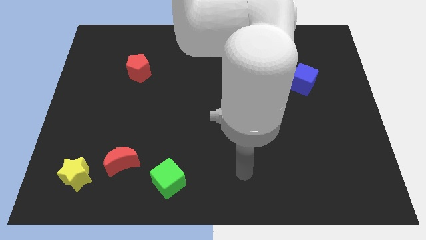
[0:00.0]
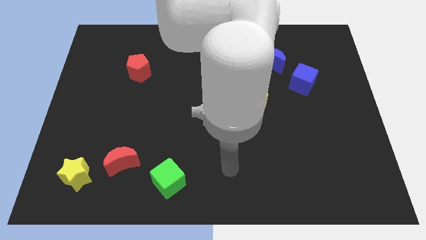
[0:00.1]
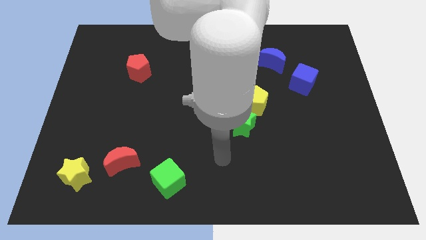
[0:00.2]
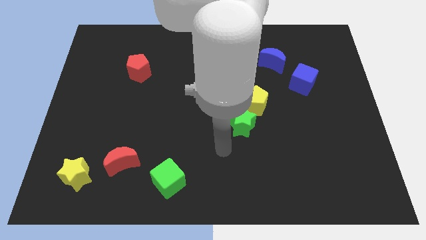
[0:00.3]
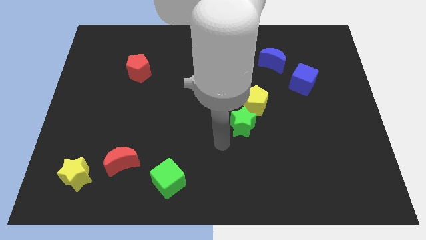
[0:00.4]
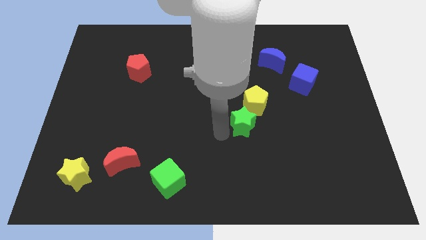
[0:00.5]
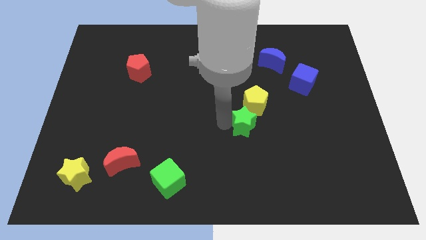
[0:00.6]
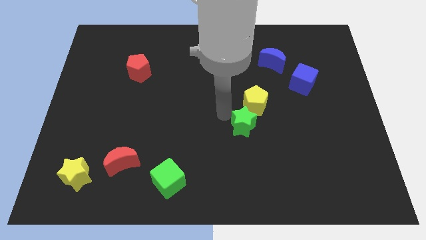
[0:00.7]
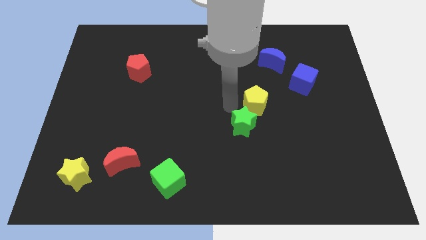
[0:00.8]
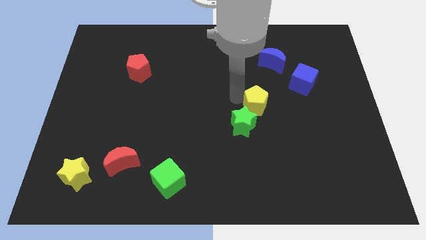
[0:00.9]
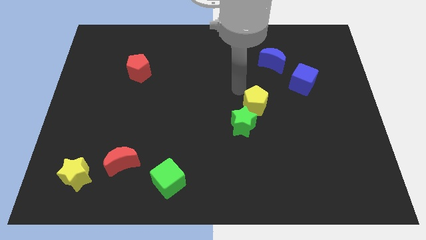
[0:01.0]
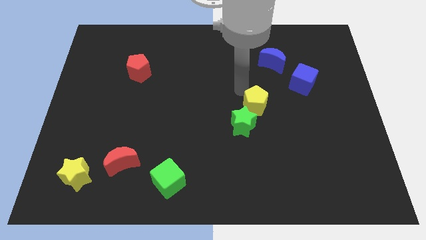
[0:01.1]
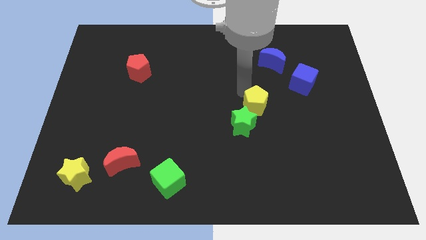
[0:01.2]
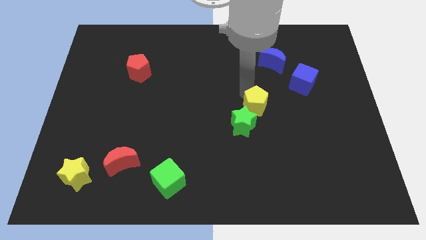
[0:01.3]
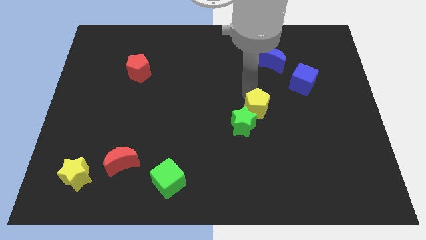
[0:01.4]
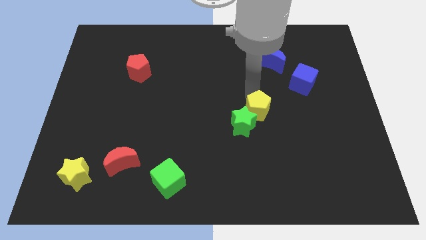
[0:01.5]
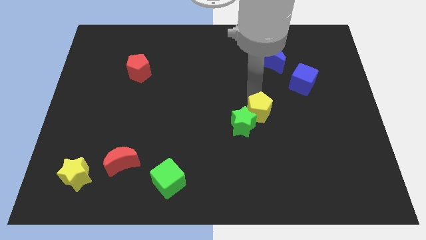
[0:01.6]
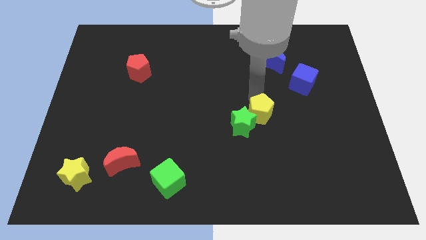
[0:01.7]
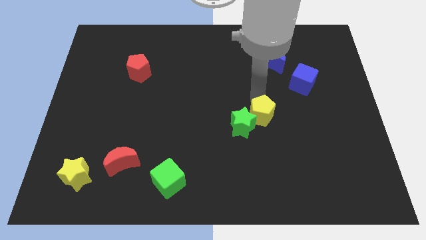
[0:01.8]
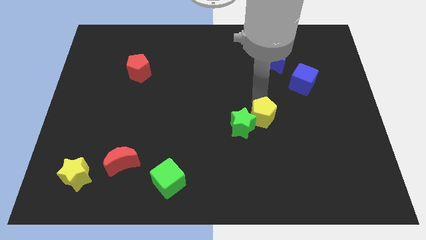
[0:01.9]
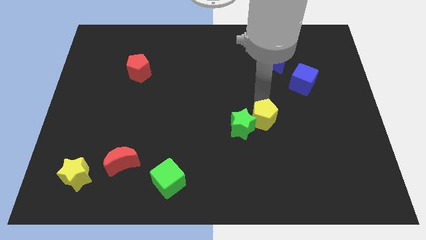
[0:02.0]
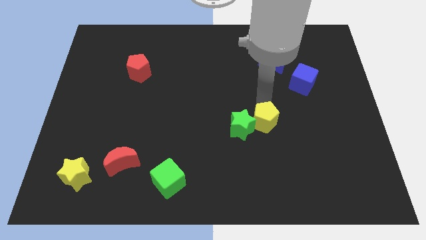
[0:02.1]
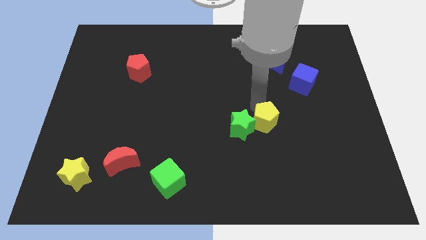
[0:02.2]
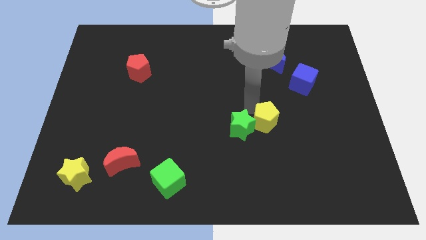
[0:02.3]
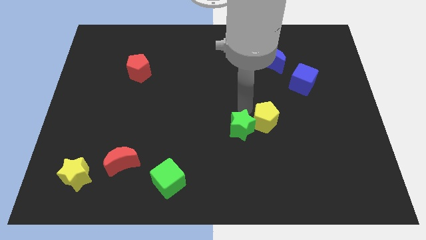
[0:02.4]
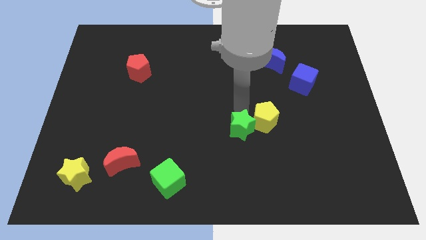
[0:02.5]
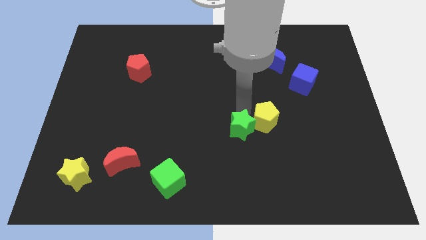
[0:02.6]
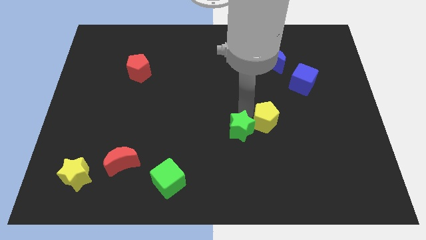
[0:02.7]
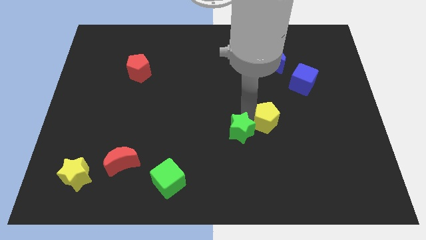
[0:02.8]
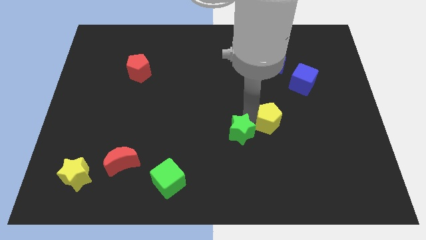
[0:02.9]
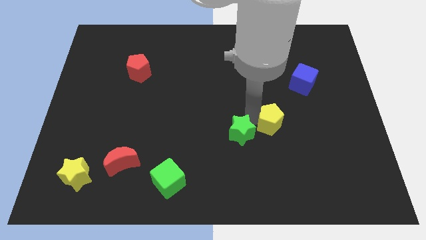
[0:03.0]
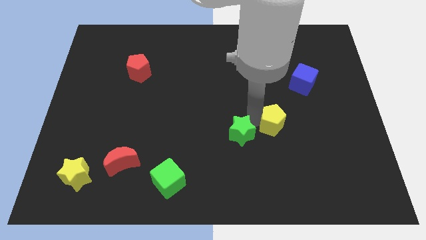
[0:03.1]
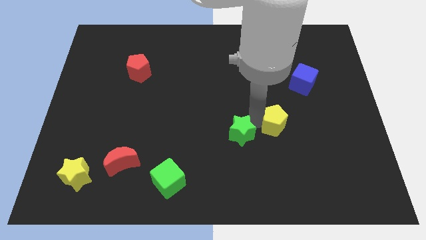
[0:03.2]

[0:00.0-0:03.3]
push the yellow pentagon down and to the right diagonally a little bit

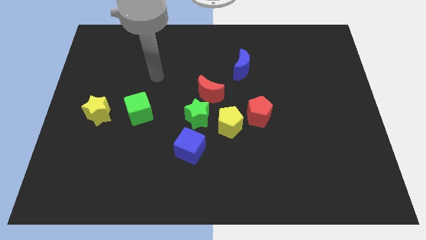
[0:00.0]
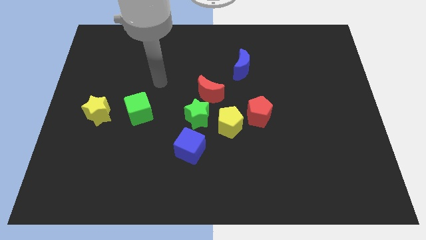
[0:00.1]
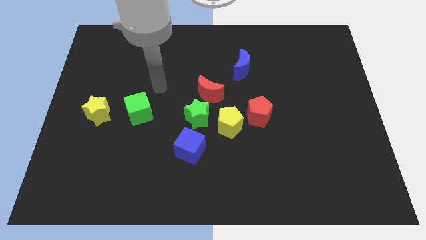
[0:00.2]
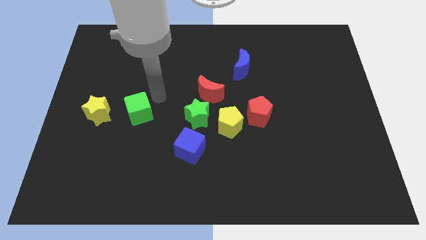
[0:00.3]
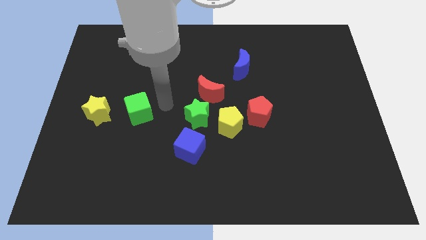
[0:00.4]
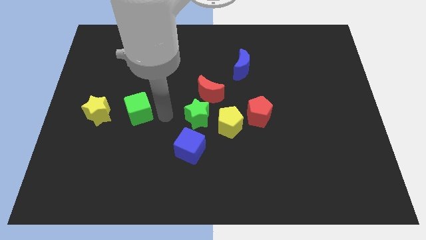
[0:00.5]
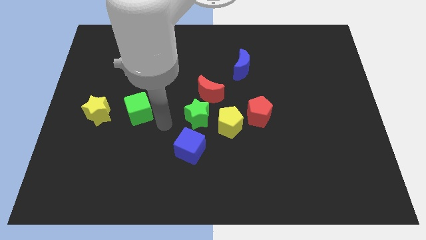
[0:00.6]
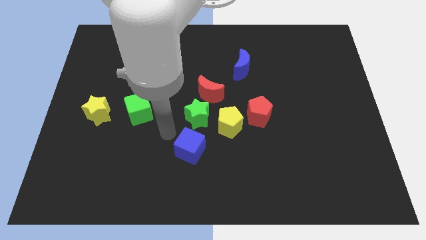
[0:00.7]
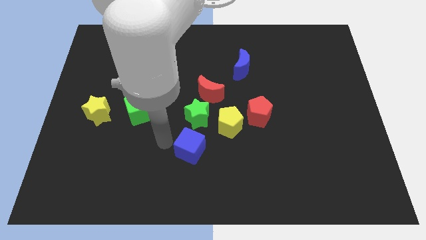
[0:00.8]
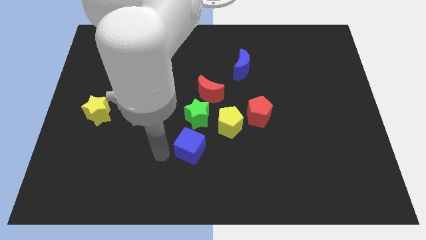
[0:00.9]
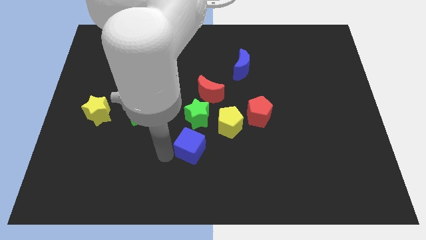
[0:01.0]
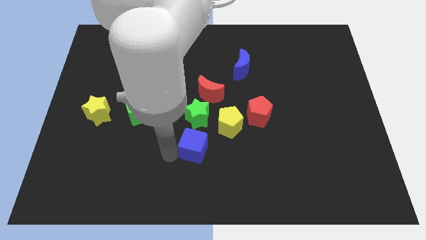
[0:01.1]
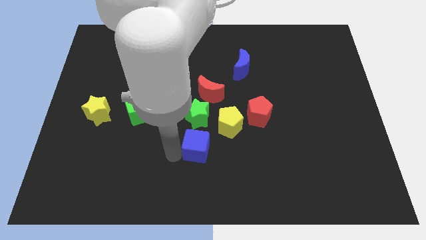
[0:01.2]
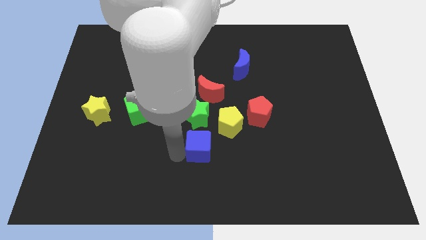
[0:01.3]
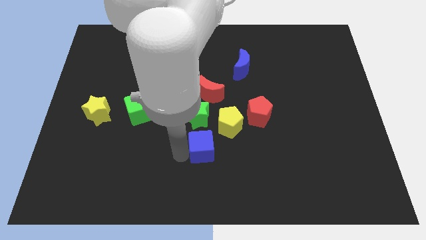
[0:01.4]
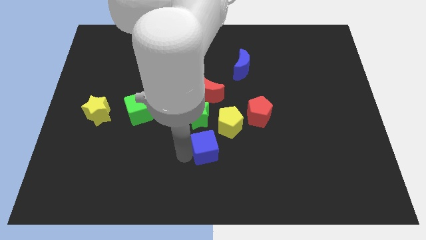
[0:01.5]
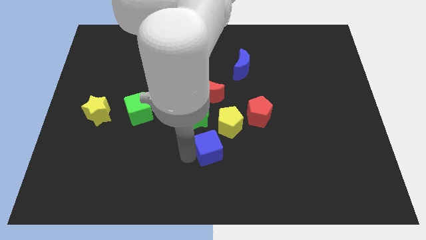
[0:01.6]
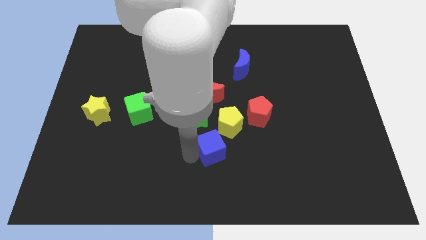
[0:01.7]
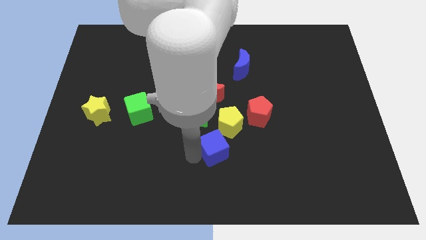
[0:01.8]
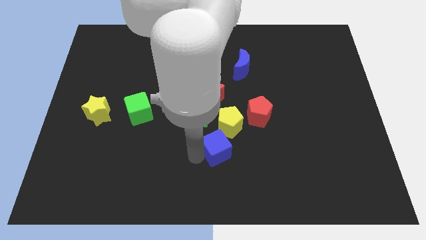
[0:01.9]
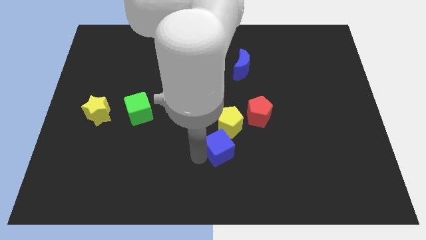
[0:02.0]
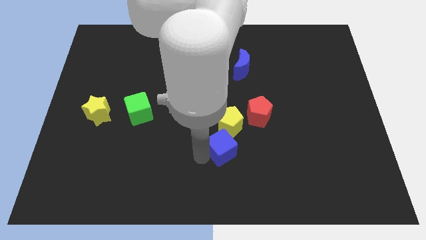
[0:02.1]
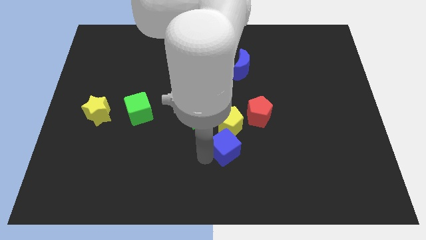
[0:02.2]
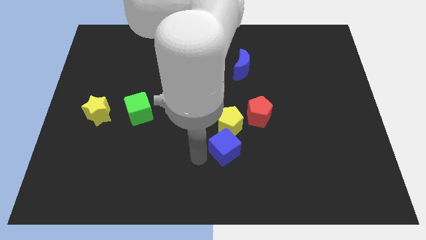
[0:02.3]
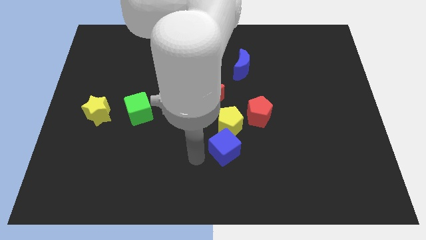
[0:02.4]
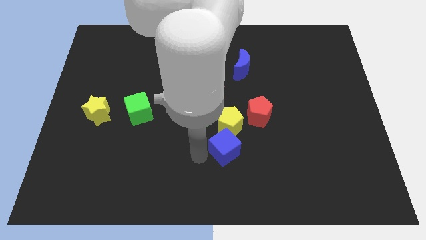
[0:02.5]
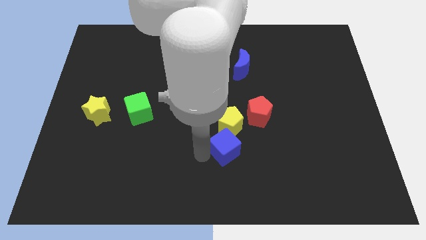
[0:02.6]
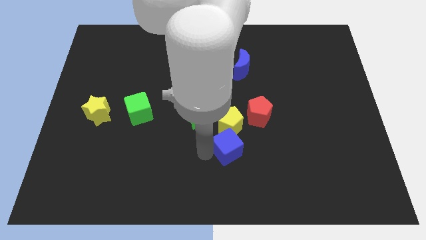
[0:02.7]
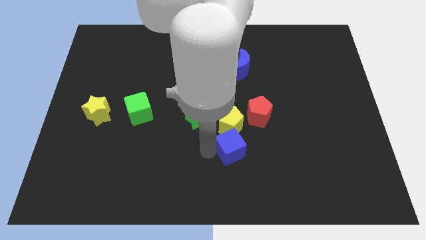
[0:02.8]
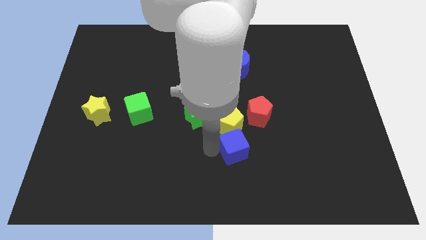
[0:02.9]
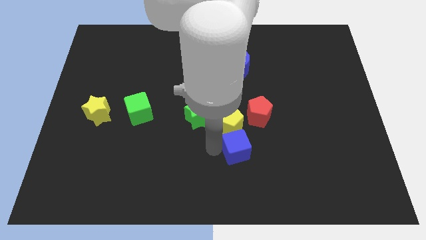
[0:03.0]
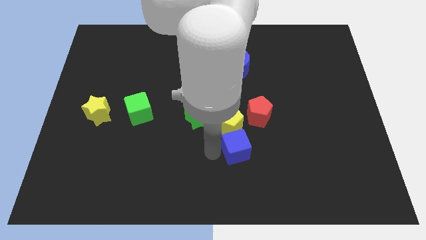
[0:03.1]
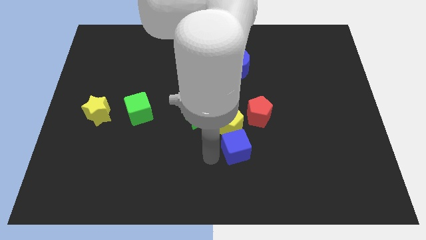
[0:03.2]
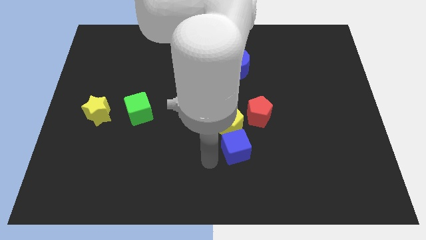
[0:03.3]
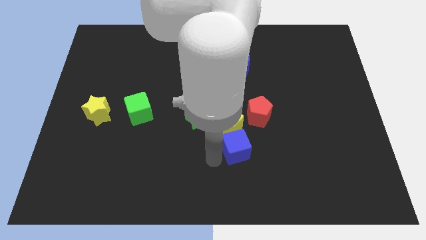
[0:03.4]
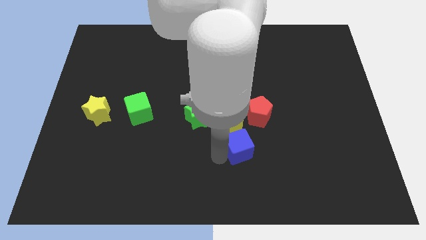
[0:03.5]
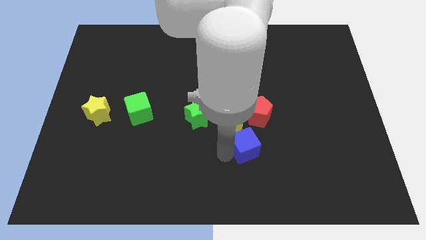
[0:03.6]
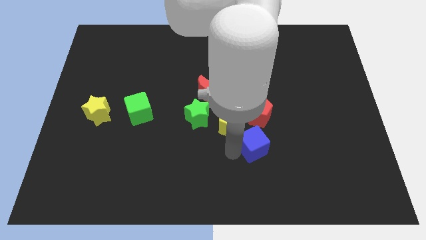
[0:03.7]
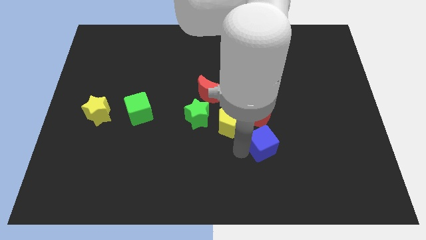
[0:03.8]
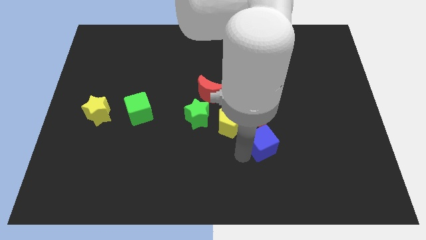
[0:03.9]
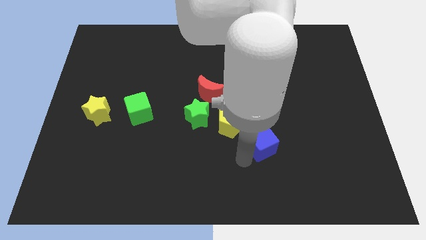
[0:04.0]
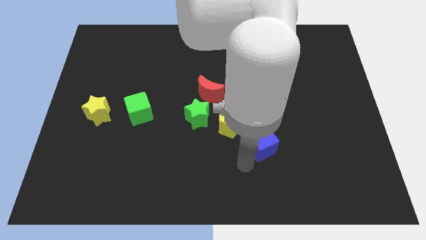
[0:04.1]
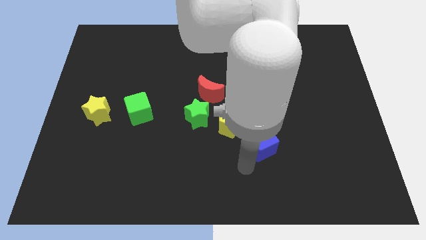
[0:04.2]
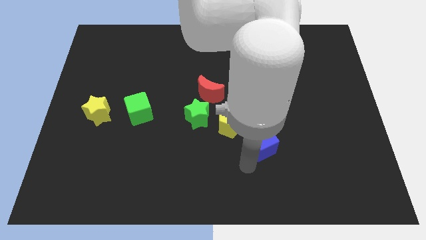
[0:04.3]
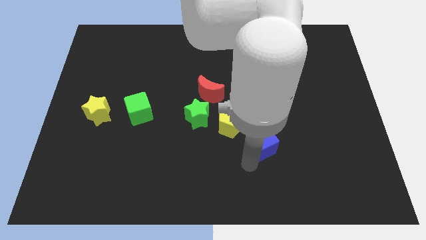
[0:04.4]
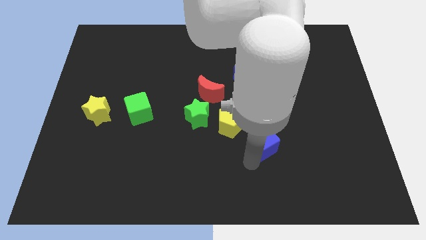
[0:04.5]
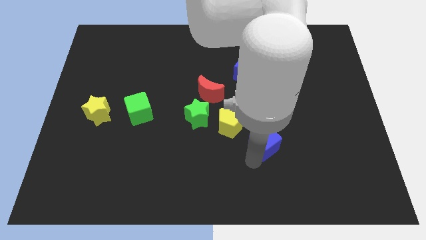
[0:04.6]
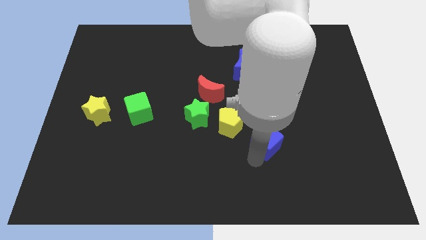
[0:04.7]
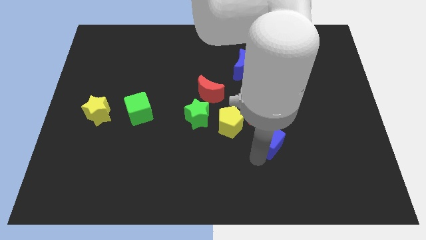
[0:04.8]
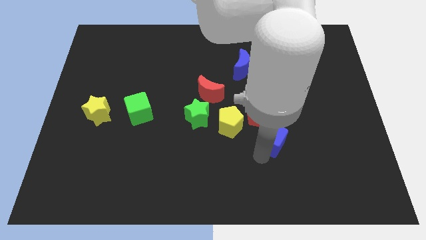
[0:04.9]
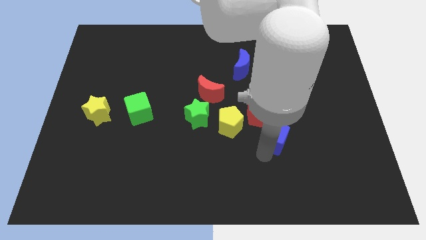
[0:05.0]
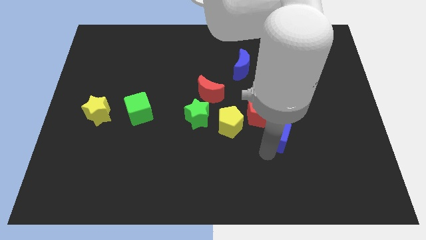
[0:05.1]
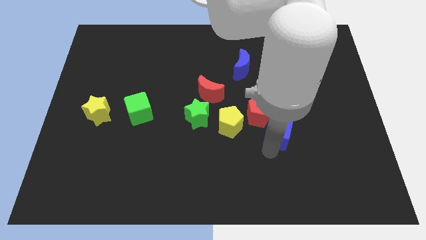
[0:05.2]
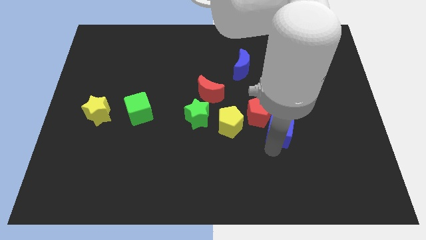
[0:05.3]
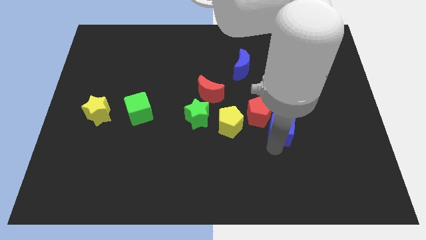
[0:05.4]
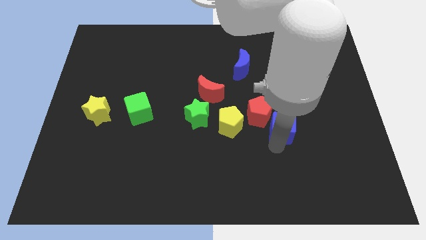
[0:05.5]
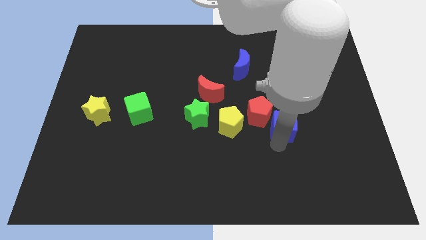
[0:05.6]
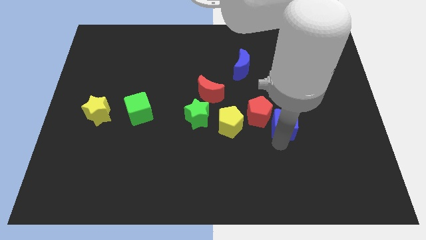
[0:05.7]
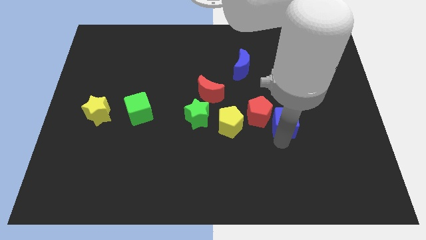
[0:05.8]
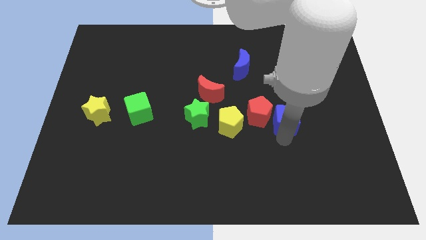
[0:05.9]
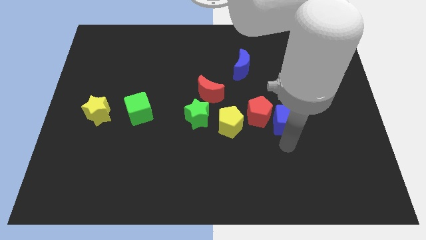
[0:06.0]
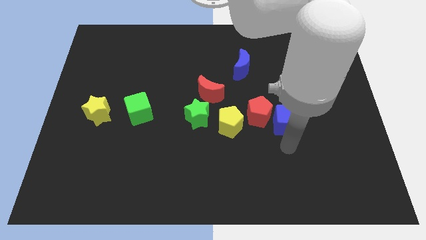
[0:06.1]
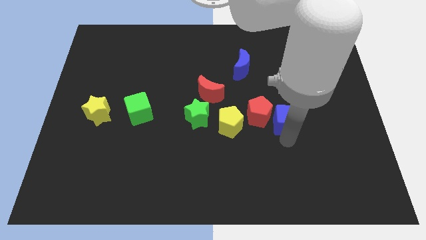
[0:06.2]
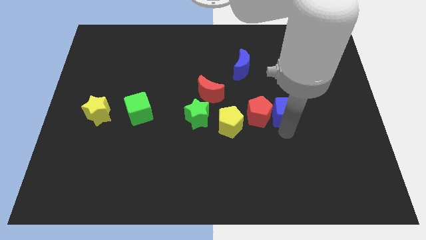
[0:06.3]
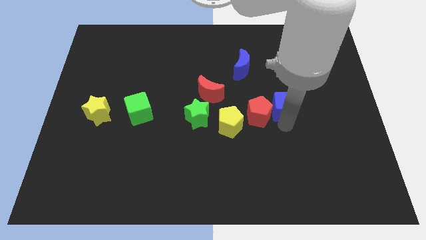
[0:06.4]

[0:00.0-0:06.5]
move the blue cube up and to the right
